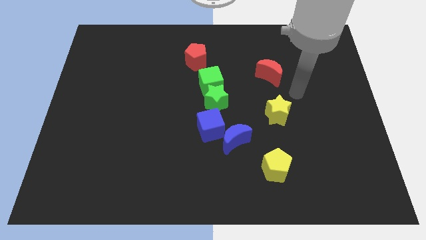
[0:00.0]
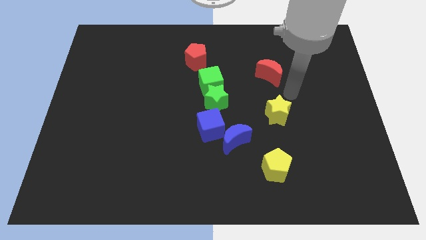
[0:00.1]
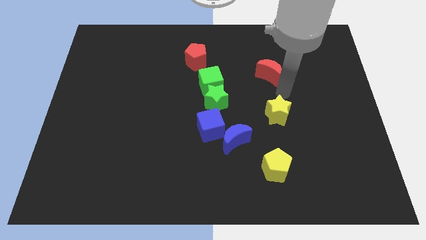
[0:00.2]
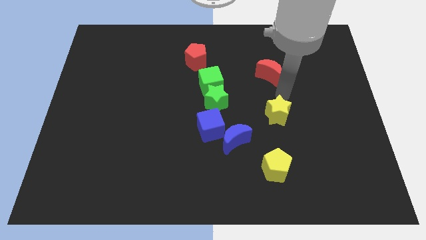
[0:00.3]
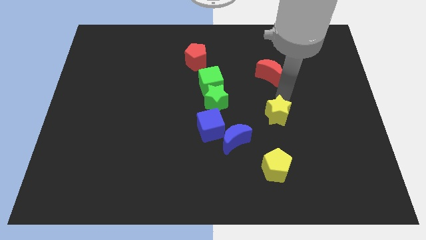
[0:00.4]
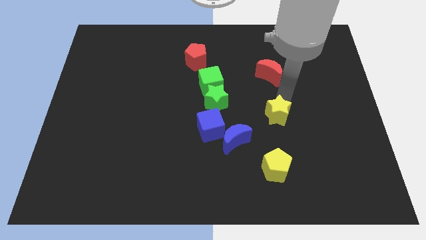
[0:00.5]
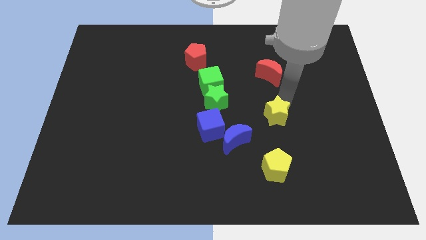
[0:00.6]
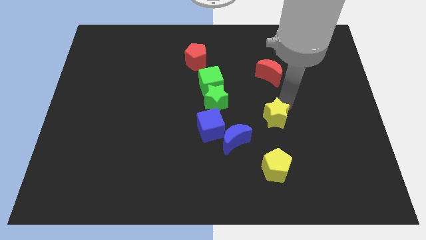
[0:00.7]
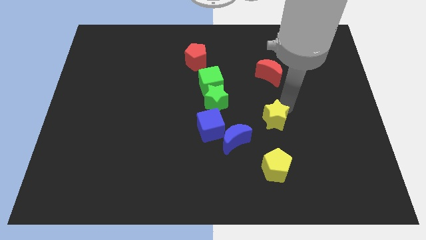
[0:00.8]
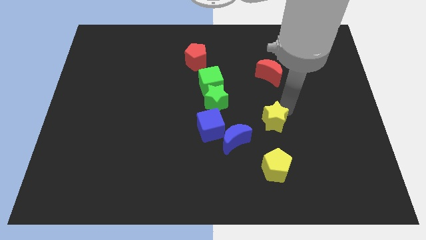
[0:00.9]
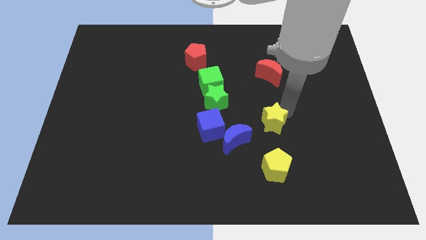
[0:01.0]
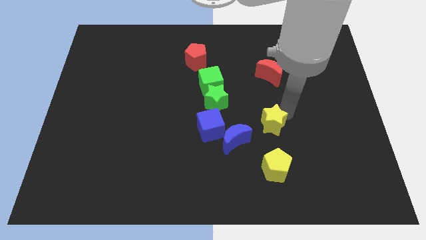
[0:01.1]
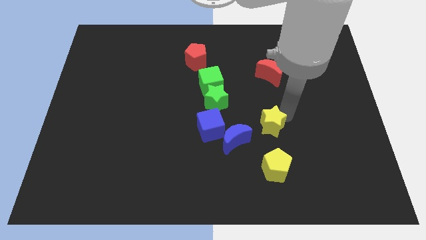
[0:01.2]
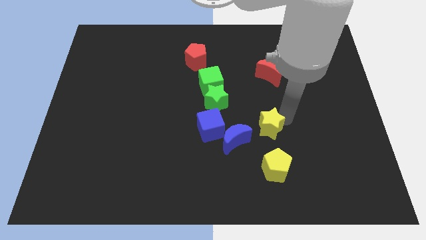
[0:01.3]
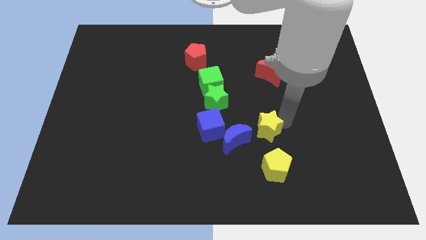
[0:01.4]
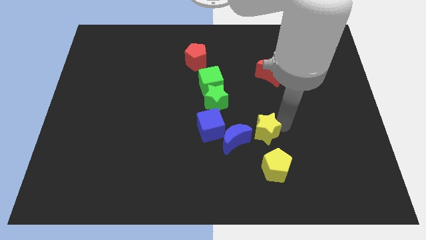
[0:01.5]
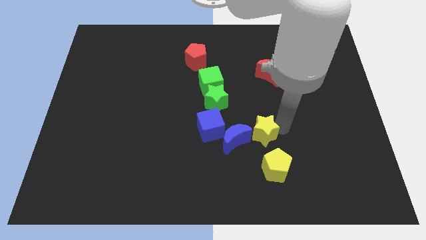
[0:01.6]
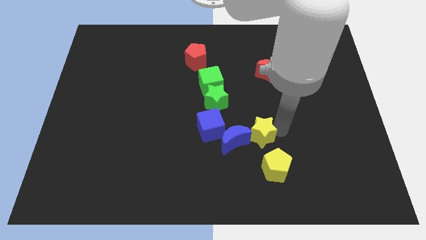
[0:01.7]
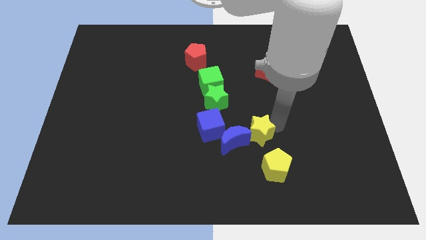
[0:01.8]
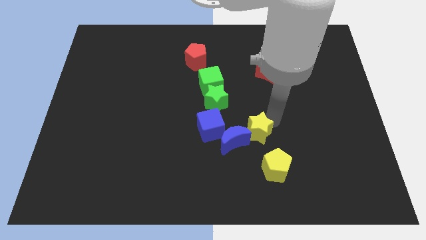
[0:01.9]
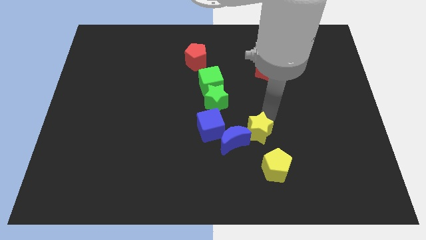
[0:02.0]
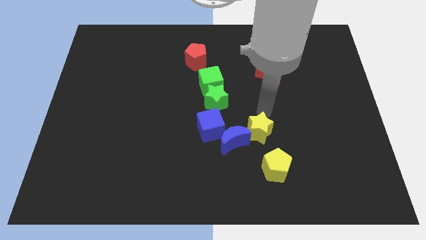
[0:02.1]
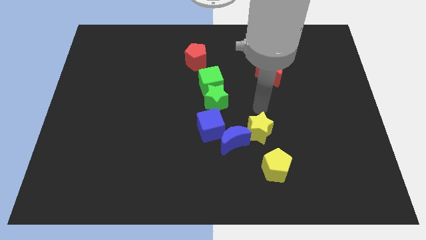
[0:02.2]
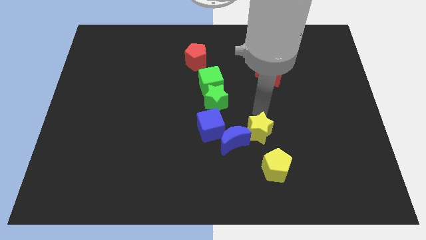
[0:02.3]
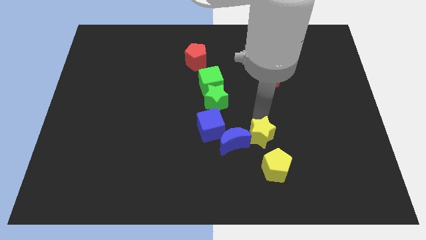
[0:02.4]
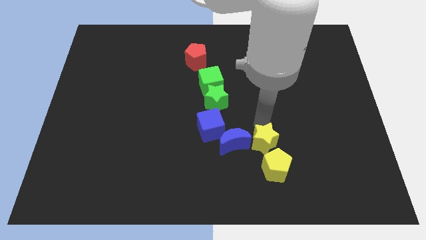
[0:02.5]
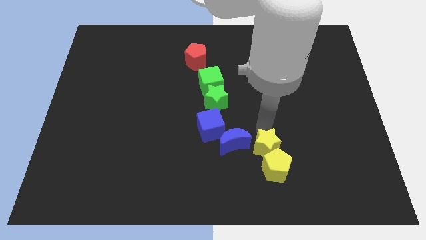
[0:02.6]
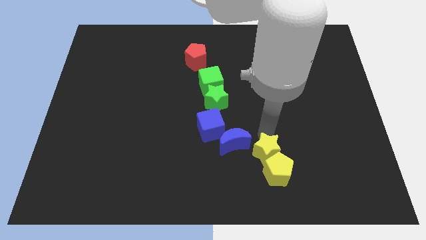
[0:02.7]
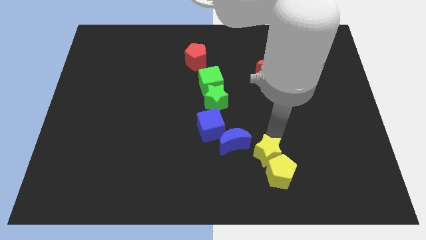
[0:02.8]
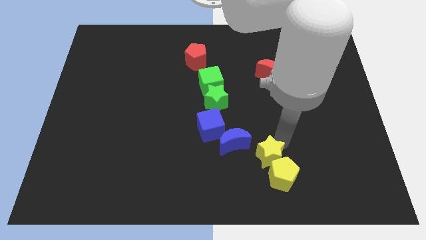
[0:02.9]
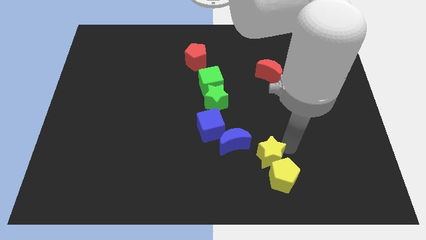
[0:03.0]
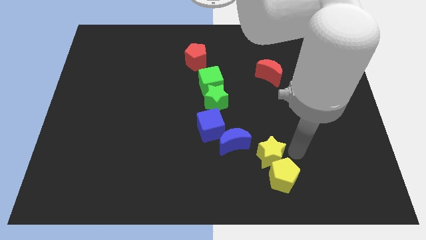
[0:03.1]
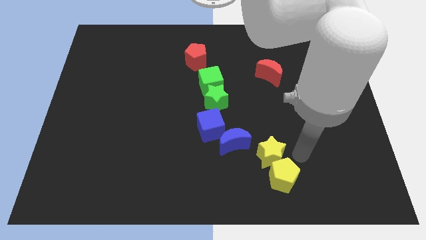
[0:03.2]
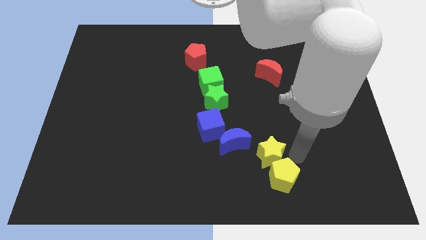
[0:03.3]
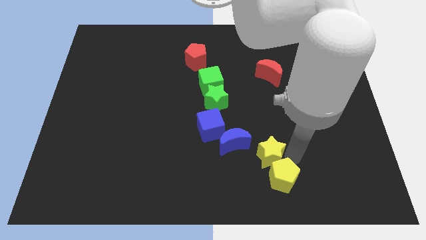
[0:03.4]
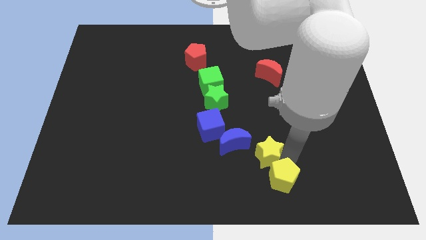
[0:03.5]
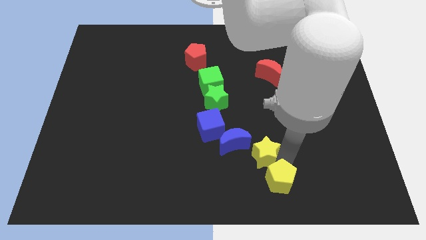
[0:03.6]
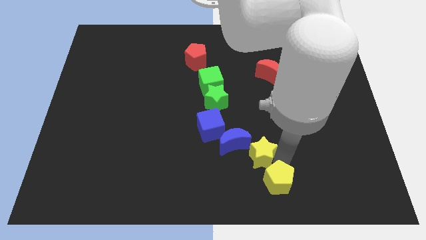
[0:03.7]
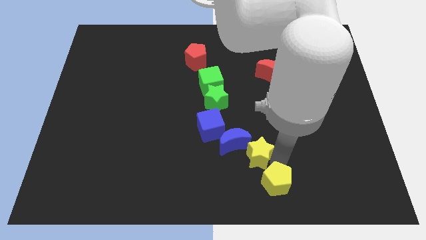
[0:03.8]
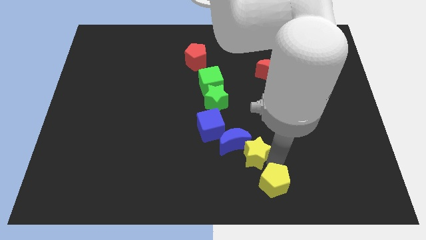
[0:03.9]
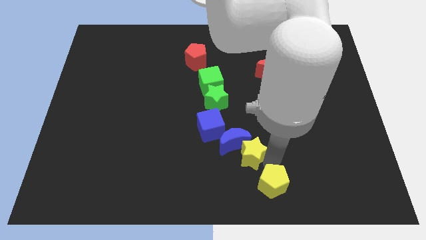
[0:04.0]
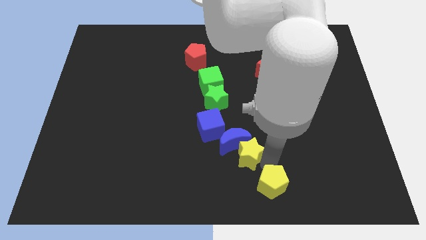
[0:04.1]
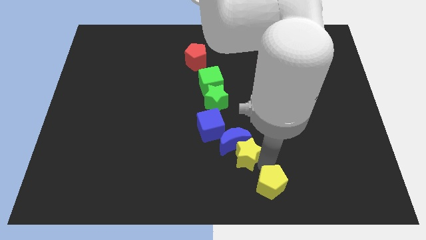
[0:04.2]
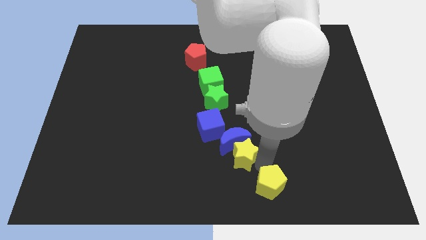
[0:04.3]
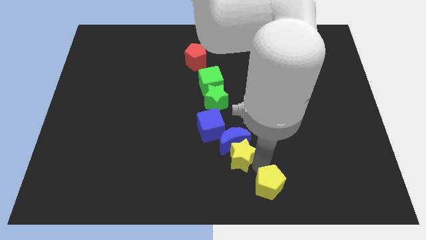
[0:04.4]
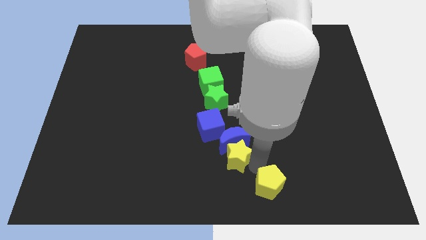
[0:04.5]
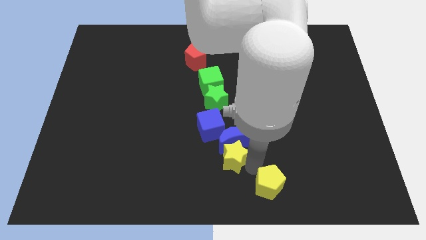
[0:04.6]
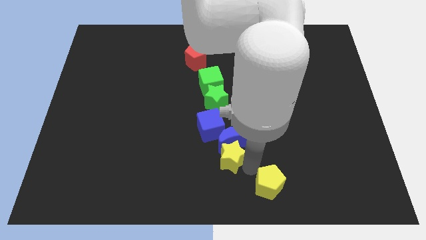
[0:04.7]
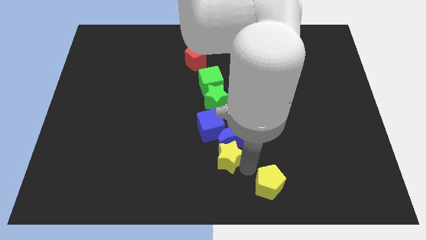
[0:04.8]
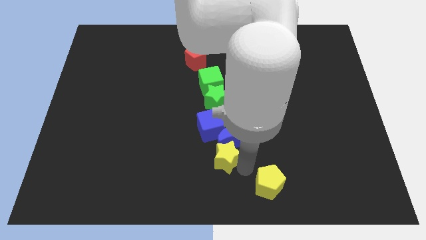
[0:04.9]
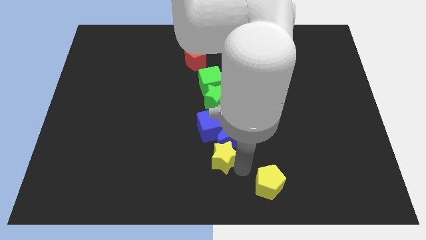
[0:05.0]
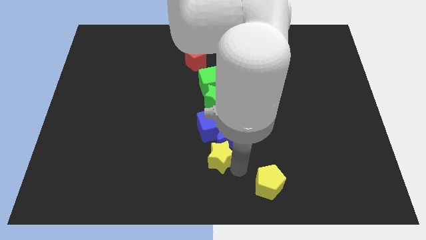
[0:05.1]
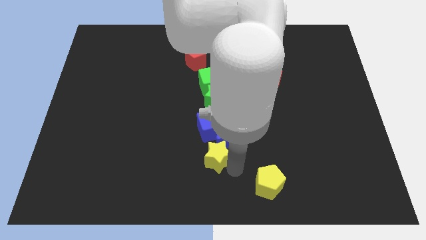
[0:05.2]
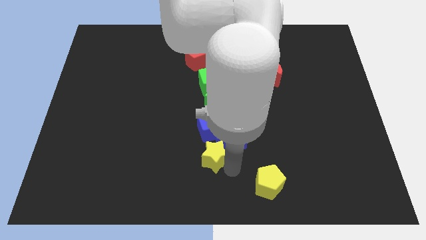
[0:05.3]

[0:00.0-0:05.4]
slide the yellow star left of the blue moon

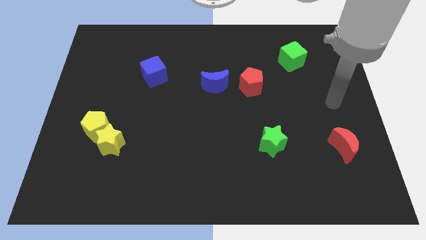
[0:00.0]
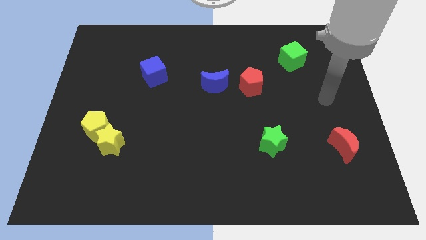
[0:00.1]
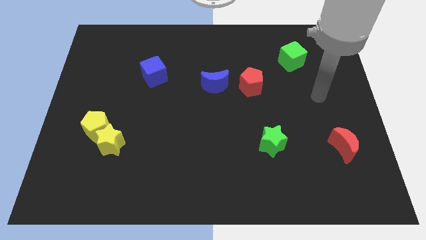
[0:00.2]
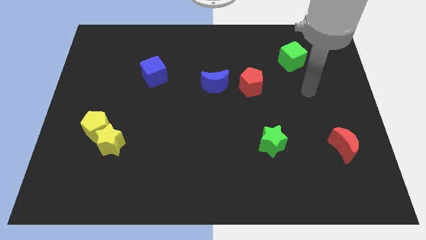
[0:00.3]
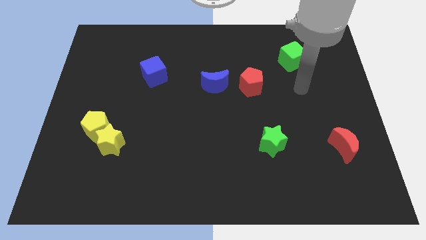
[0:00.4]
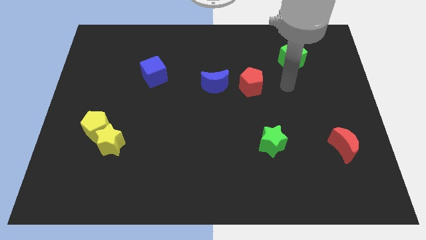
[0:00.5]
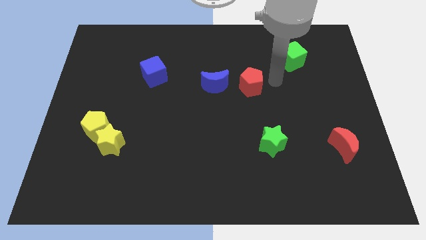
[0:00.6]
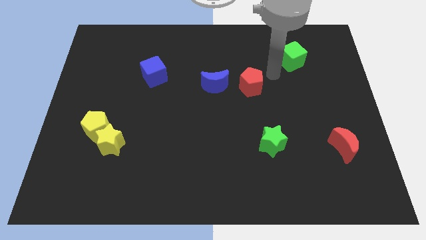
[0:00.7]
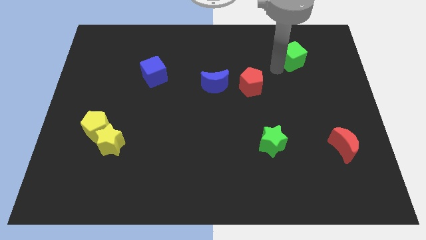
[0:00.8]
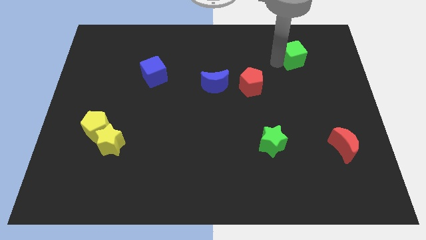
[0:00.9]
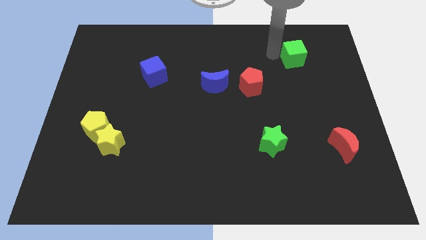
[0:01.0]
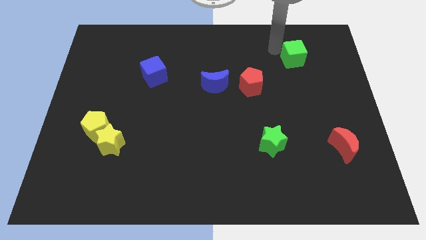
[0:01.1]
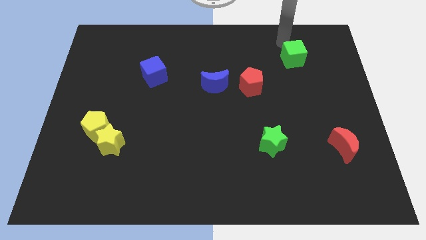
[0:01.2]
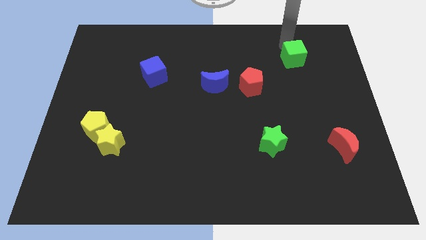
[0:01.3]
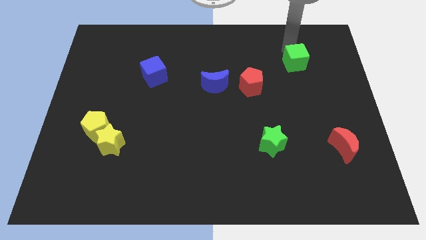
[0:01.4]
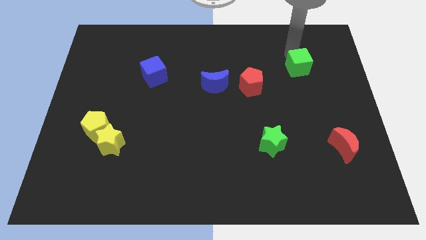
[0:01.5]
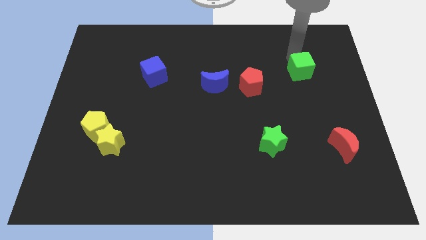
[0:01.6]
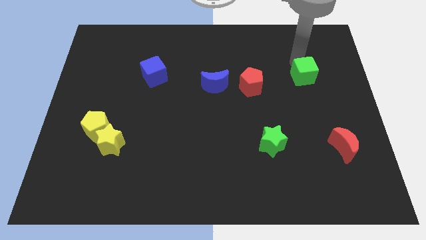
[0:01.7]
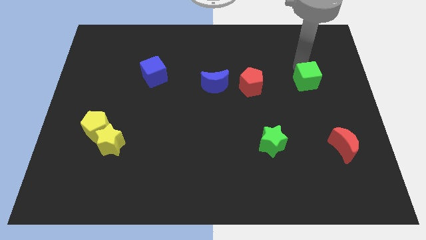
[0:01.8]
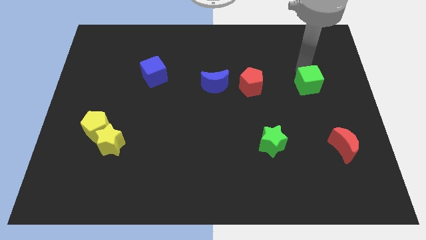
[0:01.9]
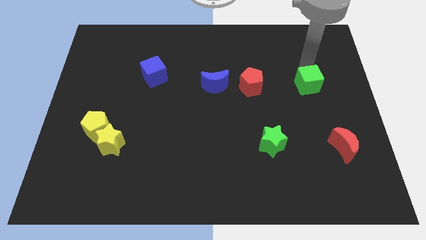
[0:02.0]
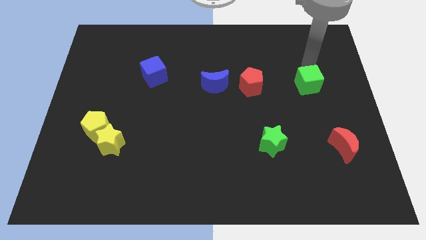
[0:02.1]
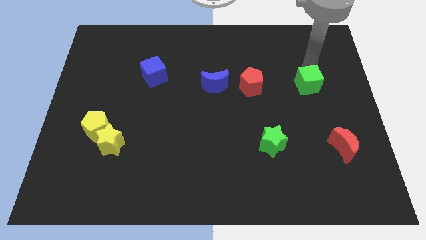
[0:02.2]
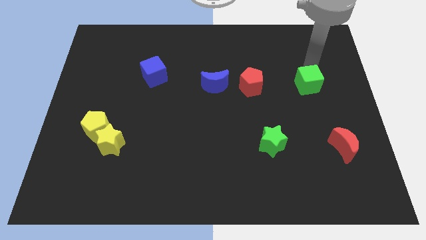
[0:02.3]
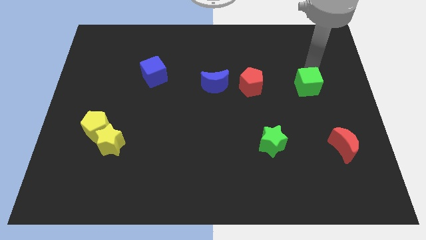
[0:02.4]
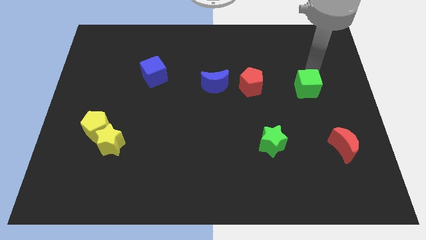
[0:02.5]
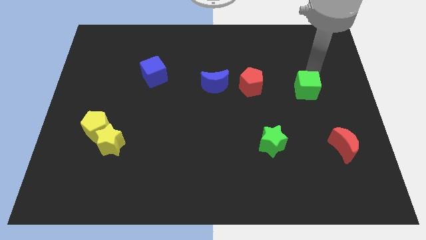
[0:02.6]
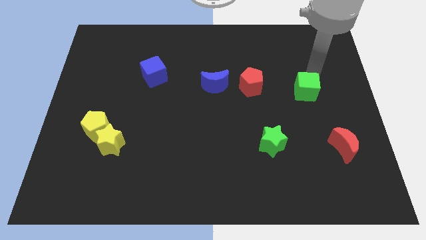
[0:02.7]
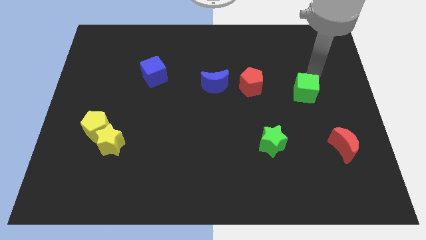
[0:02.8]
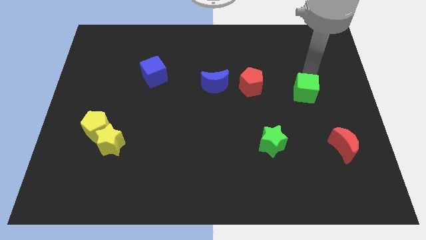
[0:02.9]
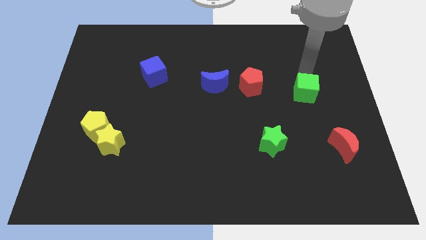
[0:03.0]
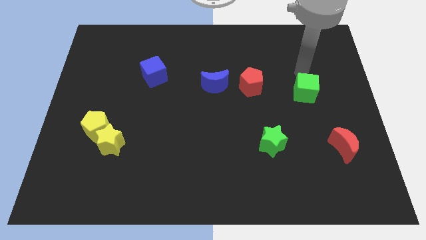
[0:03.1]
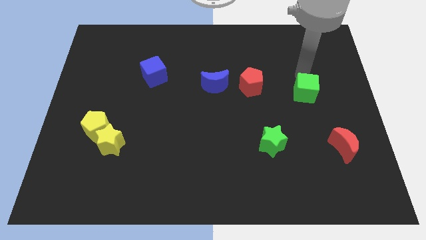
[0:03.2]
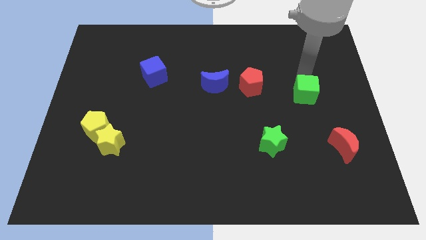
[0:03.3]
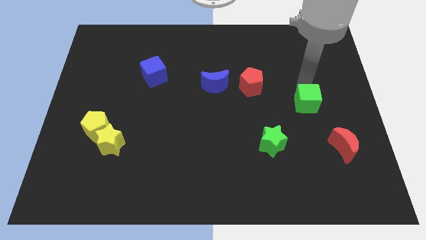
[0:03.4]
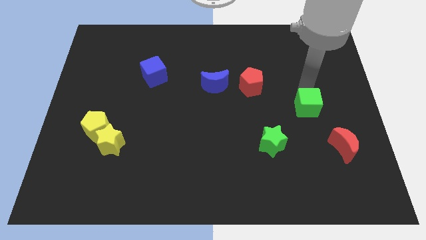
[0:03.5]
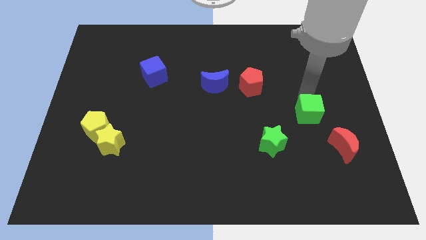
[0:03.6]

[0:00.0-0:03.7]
push the green cube to the top left side of the red moon
